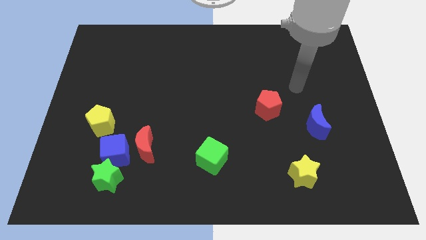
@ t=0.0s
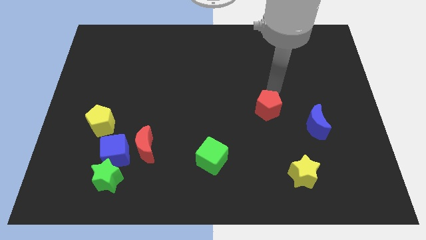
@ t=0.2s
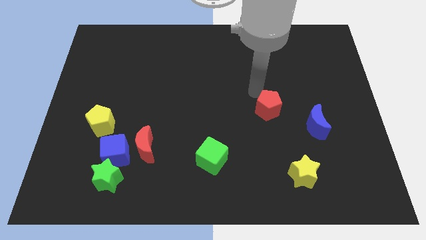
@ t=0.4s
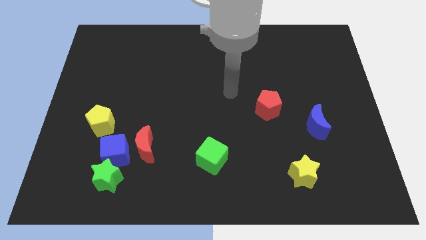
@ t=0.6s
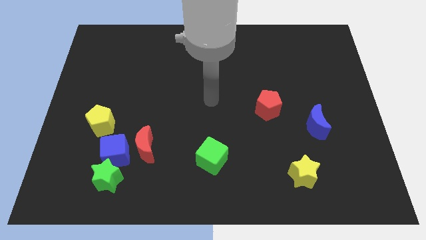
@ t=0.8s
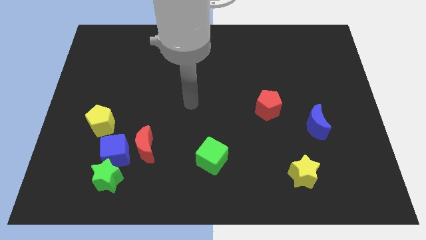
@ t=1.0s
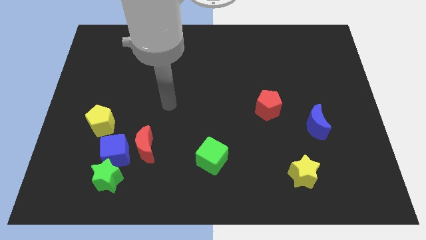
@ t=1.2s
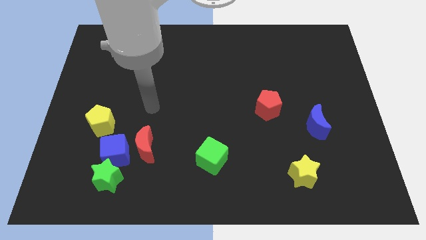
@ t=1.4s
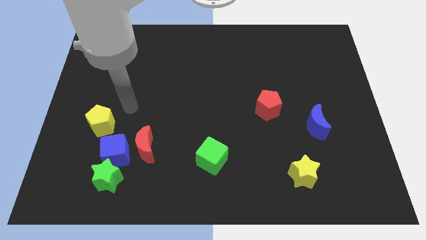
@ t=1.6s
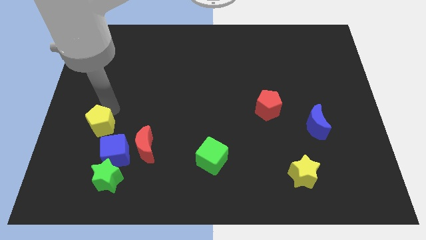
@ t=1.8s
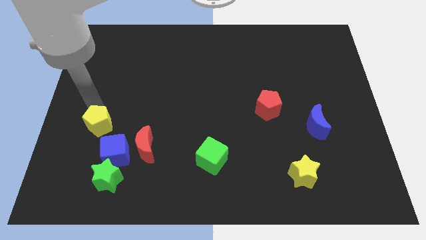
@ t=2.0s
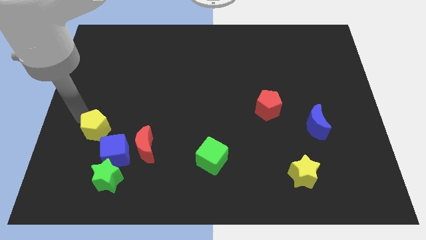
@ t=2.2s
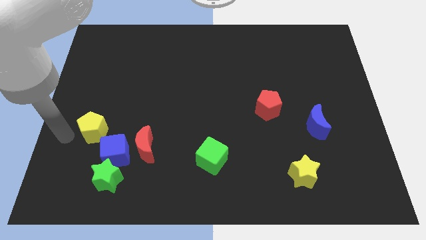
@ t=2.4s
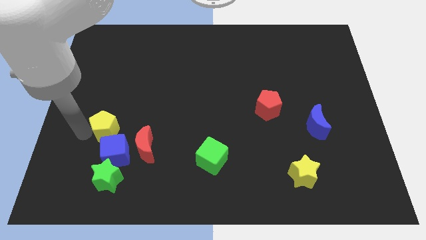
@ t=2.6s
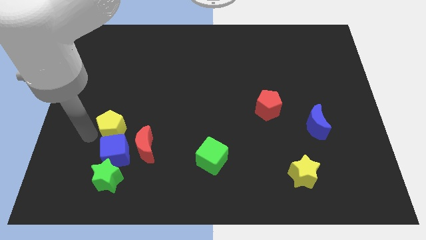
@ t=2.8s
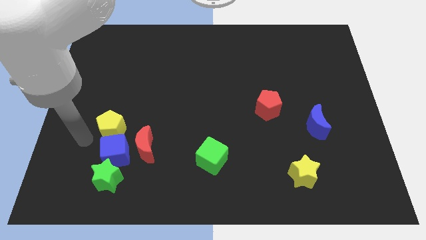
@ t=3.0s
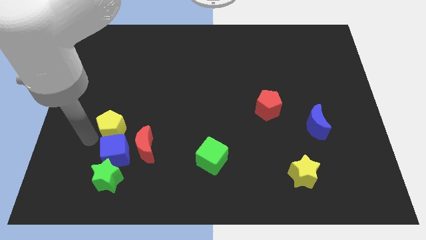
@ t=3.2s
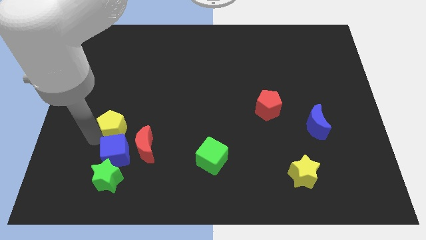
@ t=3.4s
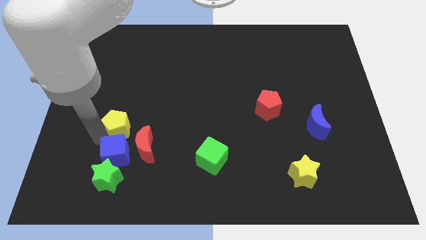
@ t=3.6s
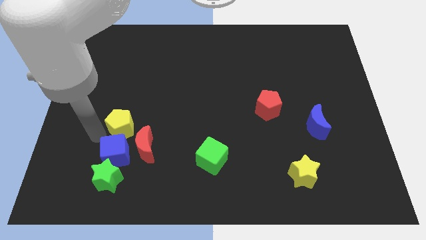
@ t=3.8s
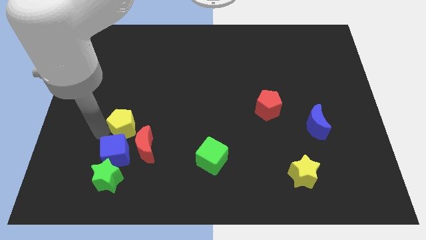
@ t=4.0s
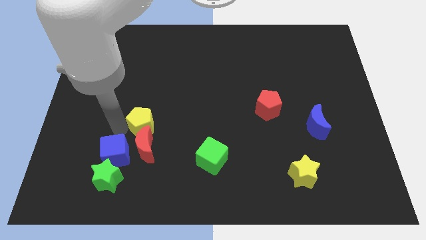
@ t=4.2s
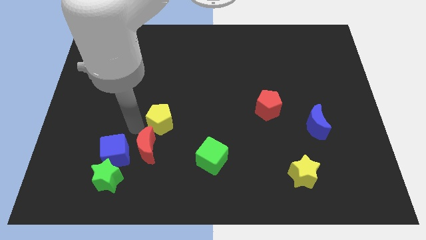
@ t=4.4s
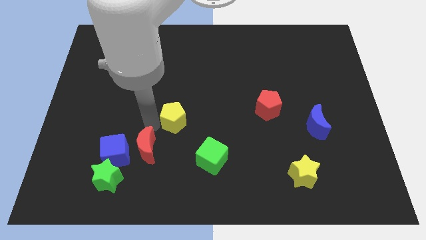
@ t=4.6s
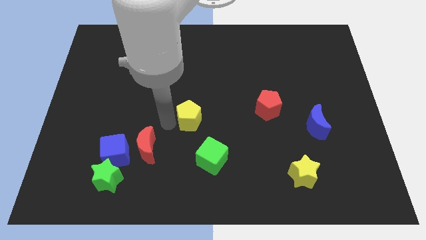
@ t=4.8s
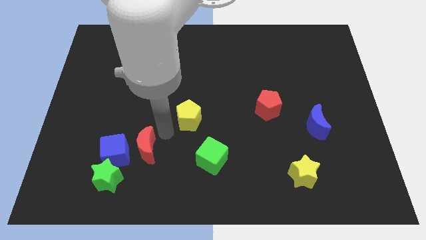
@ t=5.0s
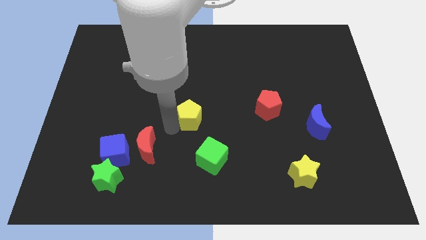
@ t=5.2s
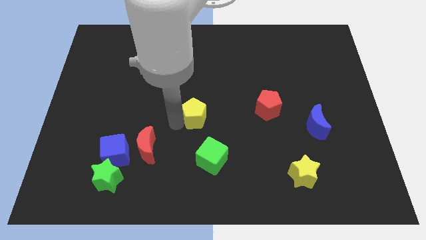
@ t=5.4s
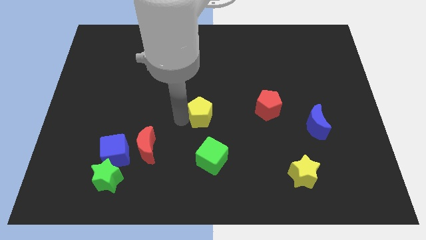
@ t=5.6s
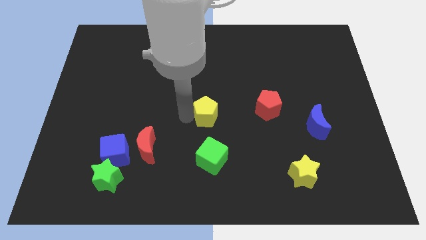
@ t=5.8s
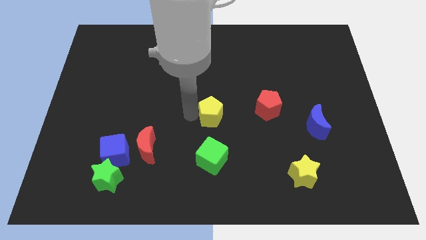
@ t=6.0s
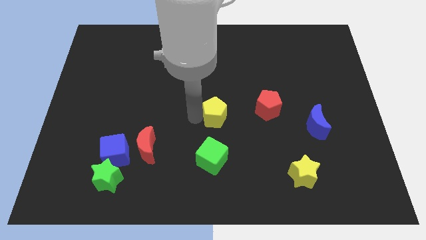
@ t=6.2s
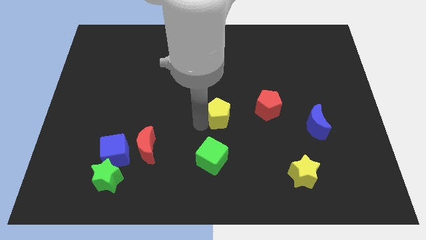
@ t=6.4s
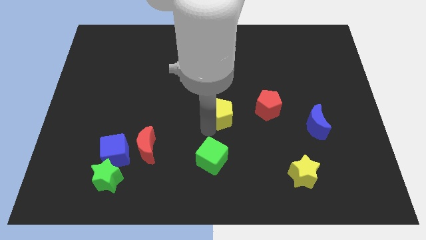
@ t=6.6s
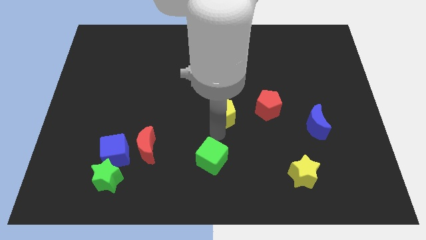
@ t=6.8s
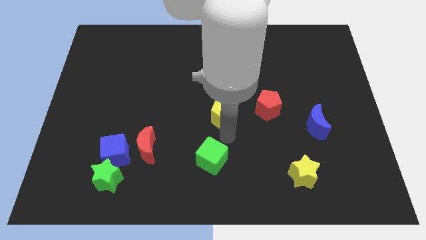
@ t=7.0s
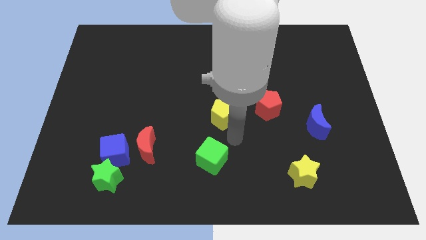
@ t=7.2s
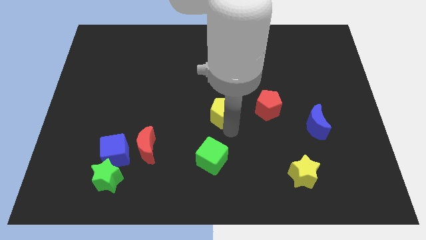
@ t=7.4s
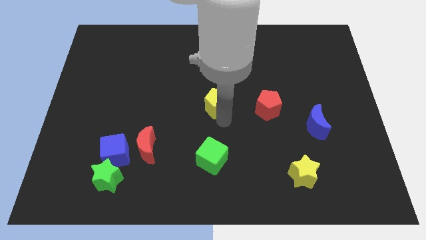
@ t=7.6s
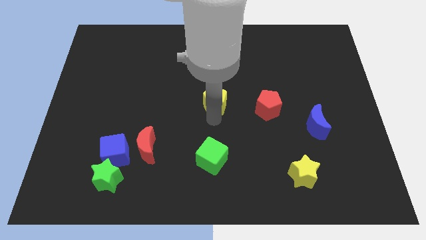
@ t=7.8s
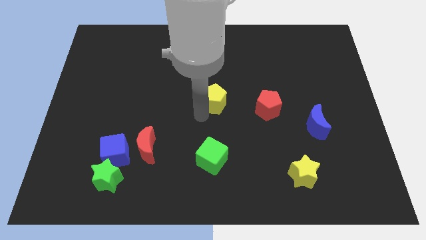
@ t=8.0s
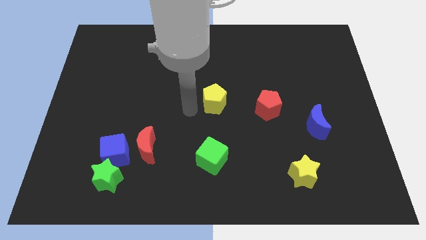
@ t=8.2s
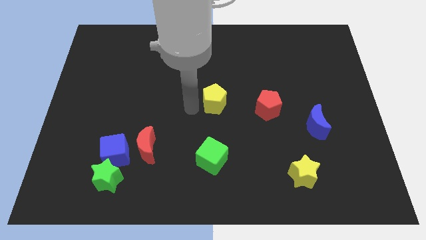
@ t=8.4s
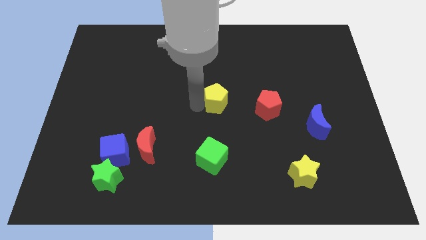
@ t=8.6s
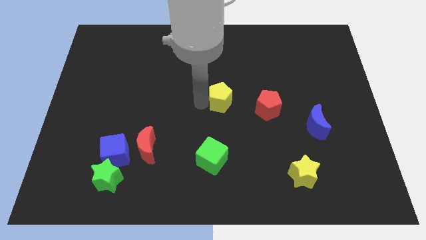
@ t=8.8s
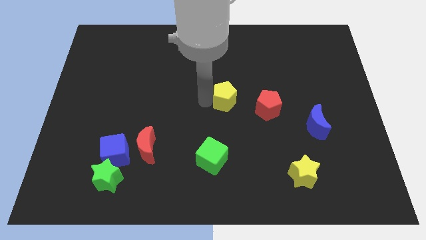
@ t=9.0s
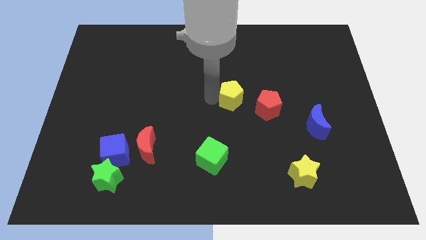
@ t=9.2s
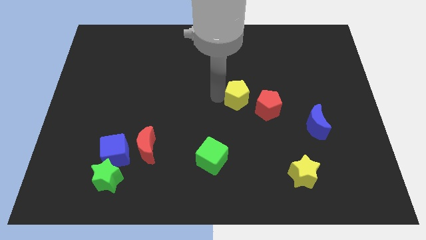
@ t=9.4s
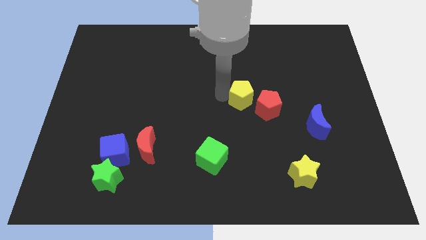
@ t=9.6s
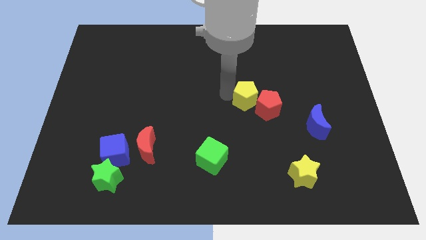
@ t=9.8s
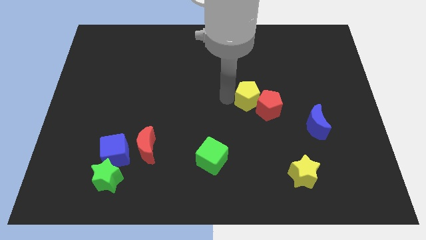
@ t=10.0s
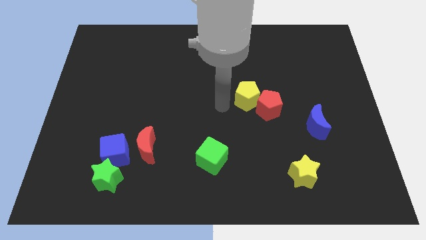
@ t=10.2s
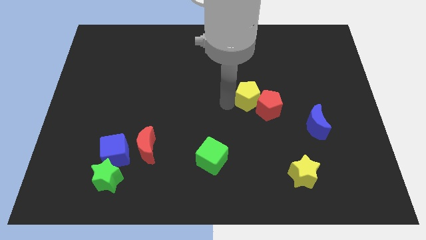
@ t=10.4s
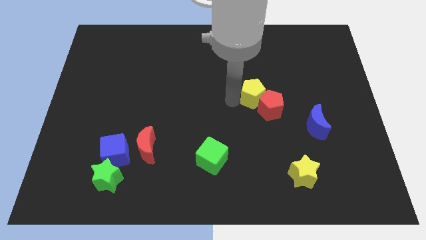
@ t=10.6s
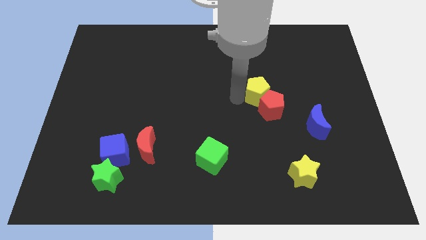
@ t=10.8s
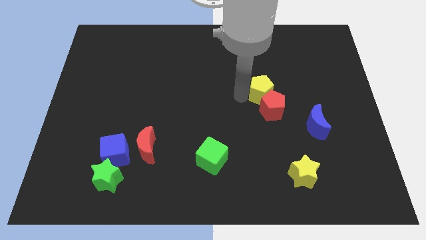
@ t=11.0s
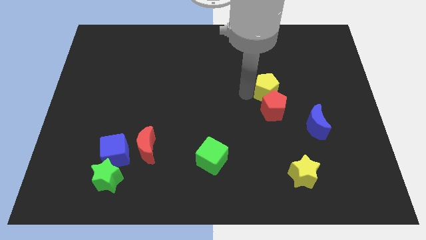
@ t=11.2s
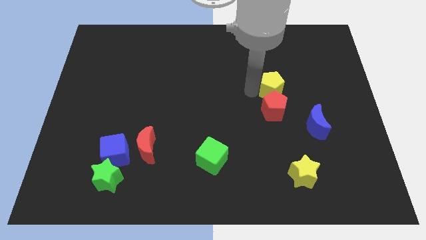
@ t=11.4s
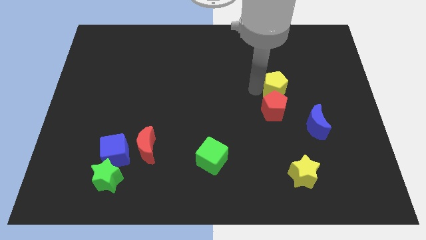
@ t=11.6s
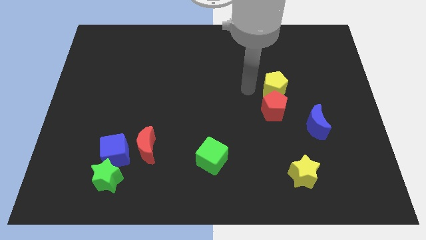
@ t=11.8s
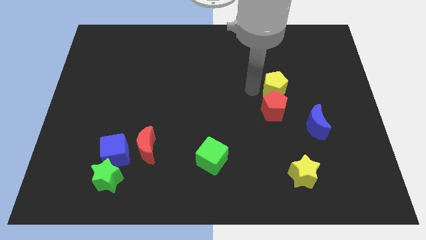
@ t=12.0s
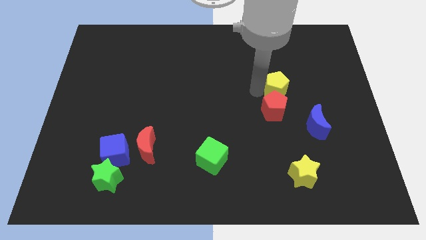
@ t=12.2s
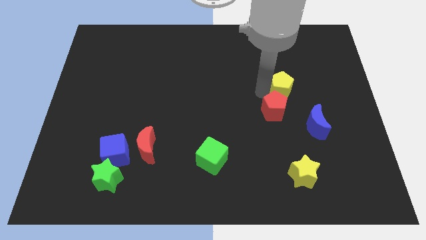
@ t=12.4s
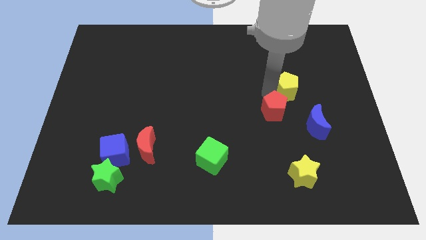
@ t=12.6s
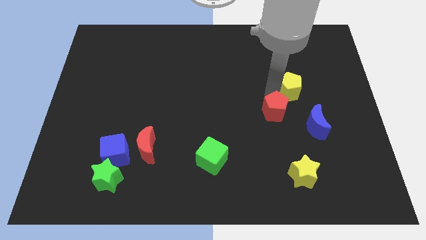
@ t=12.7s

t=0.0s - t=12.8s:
slide the yellow pentagon above the blue moon
